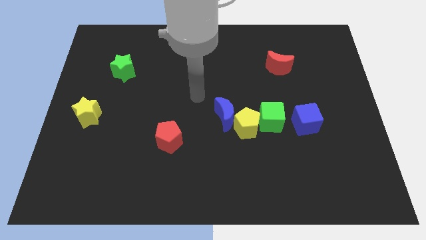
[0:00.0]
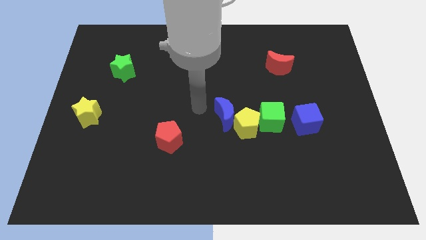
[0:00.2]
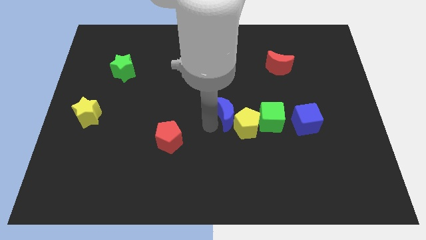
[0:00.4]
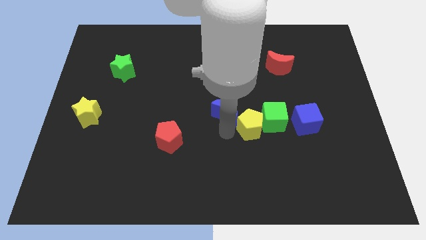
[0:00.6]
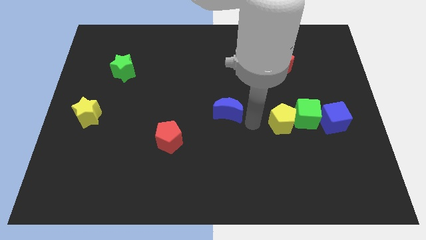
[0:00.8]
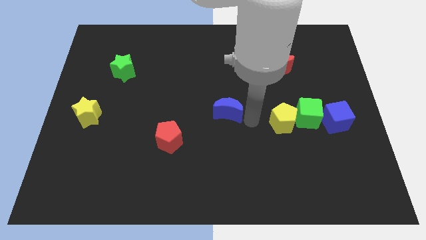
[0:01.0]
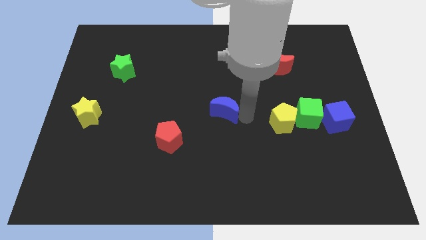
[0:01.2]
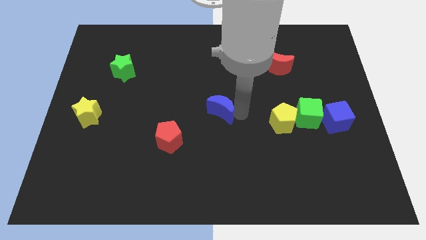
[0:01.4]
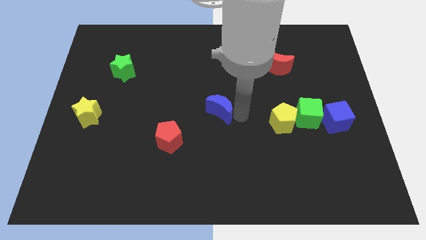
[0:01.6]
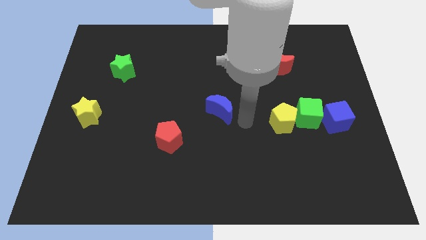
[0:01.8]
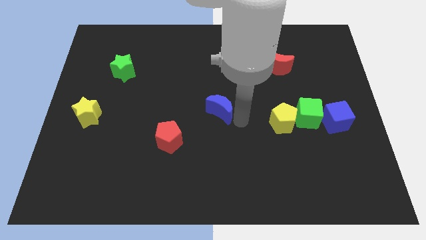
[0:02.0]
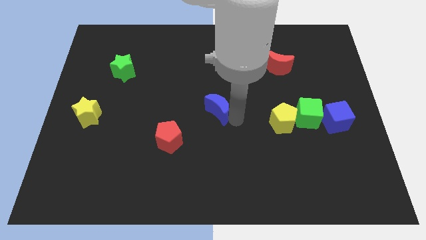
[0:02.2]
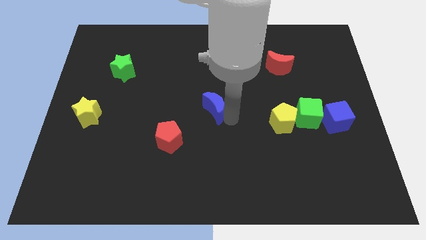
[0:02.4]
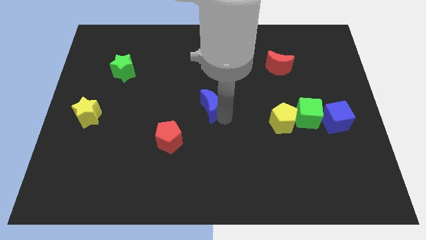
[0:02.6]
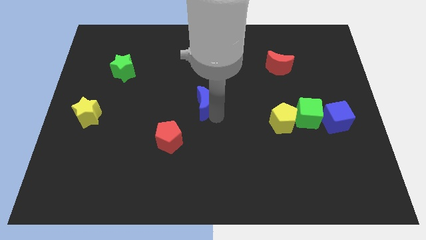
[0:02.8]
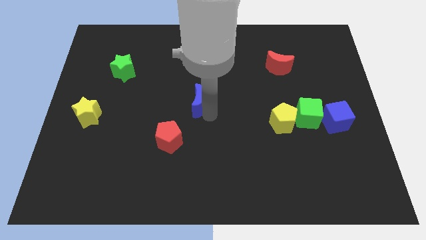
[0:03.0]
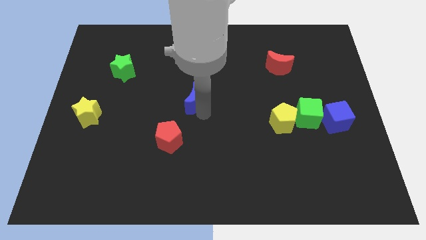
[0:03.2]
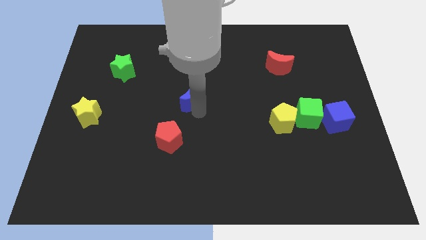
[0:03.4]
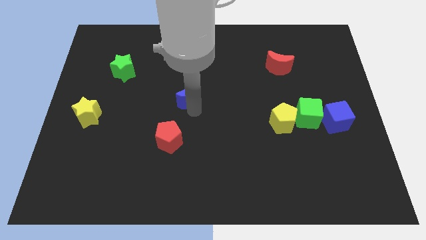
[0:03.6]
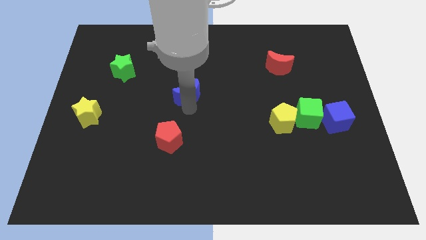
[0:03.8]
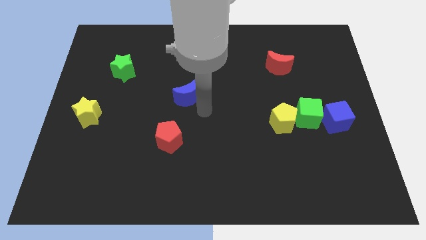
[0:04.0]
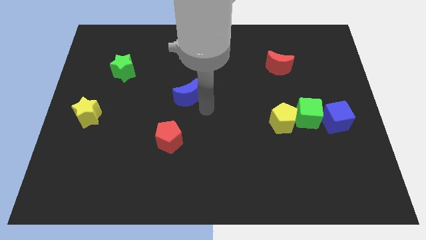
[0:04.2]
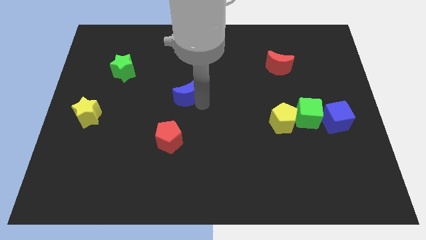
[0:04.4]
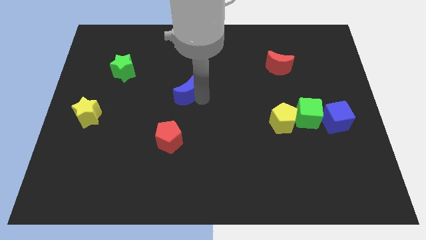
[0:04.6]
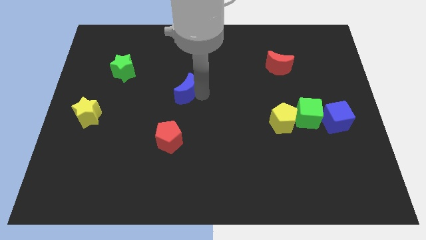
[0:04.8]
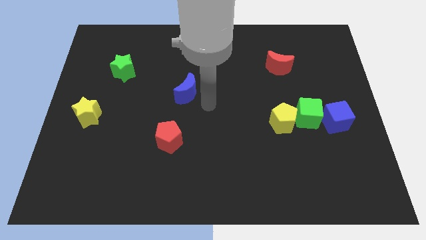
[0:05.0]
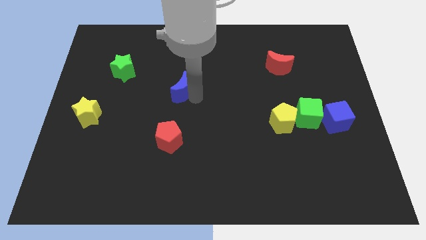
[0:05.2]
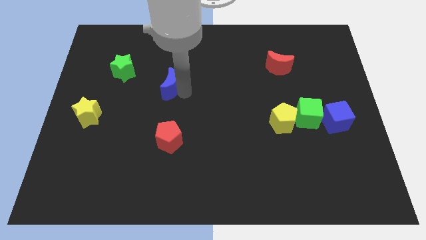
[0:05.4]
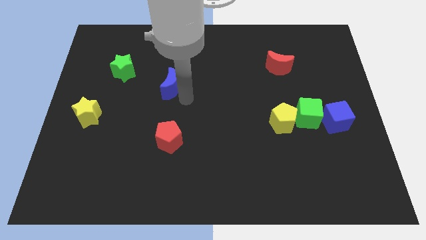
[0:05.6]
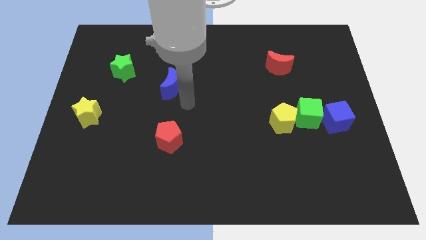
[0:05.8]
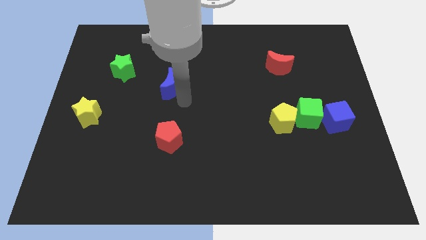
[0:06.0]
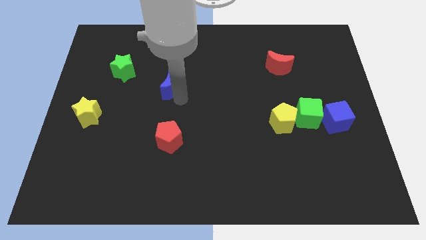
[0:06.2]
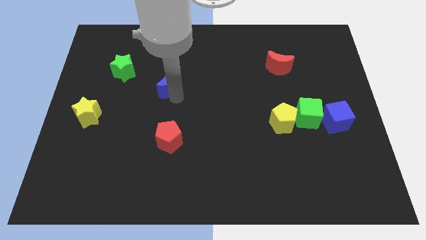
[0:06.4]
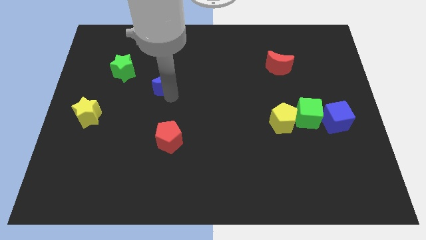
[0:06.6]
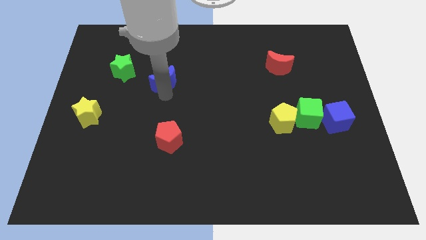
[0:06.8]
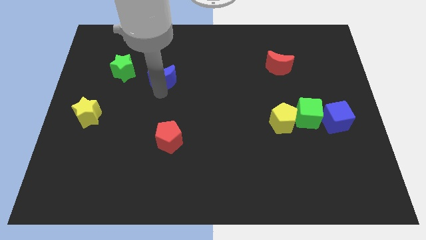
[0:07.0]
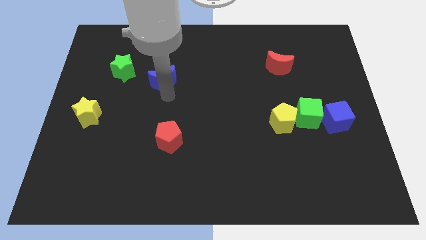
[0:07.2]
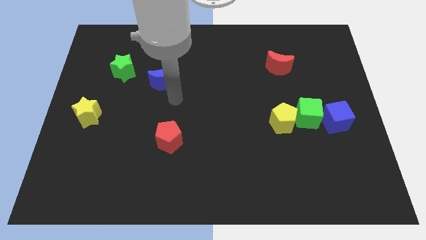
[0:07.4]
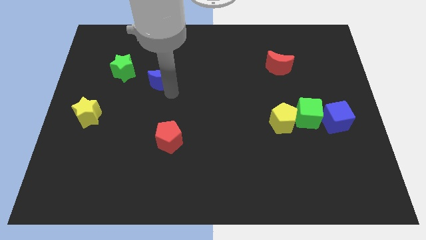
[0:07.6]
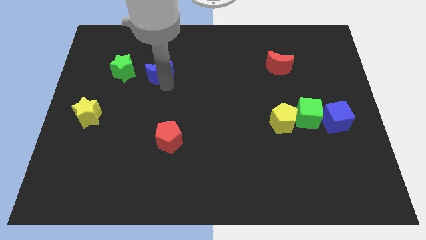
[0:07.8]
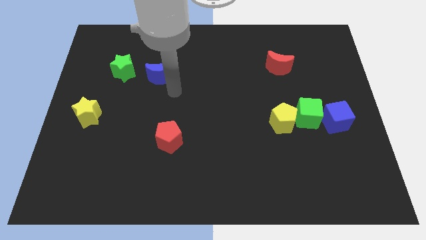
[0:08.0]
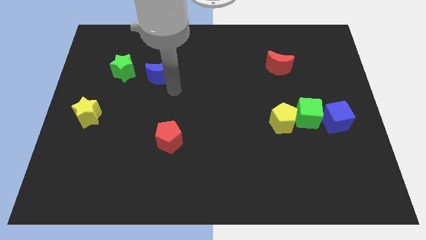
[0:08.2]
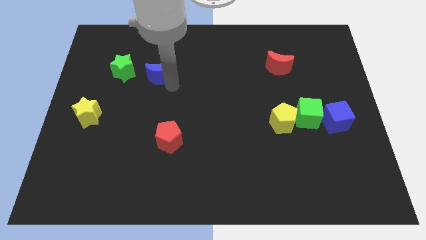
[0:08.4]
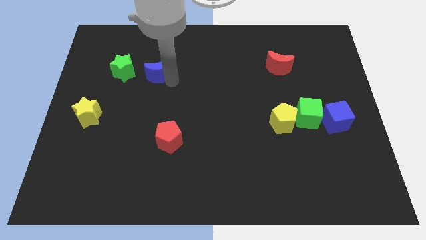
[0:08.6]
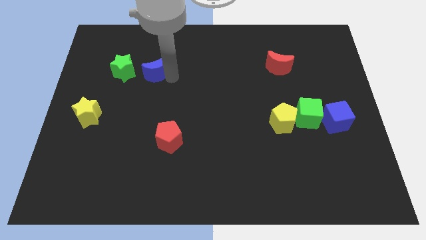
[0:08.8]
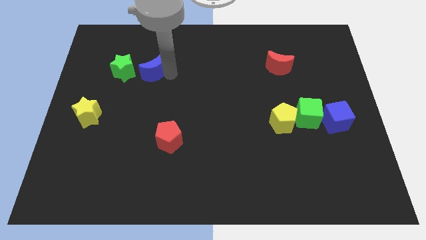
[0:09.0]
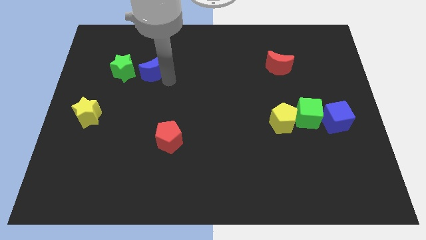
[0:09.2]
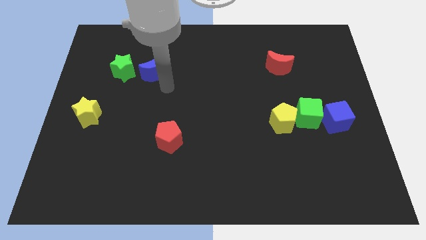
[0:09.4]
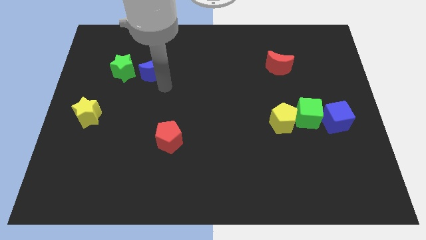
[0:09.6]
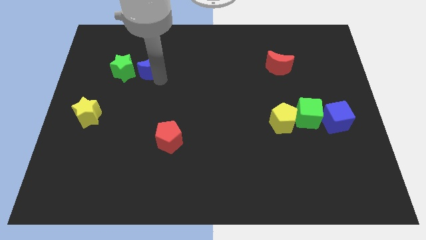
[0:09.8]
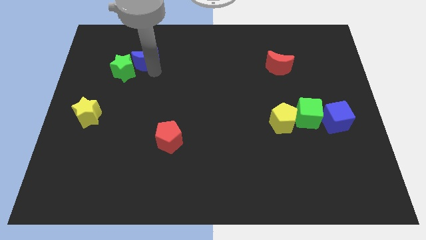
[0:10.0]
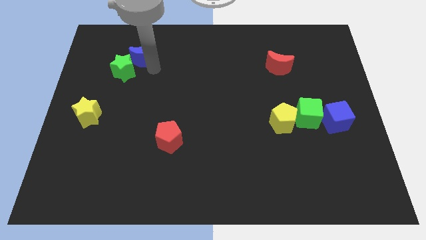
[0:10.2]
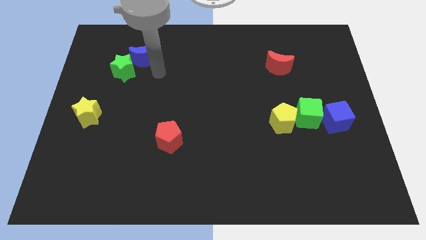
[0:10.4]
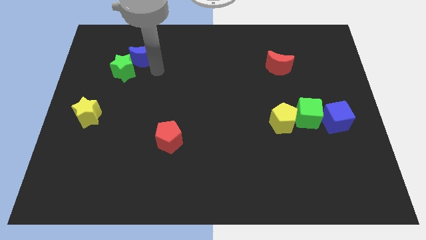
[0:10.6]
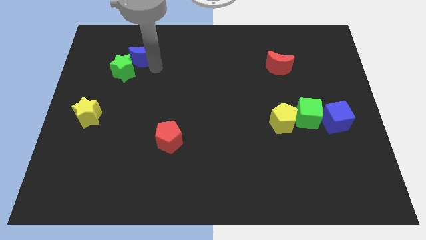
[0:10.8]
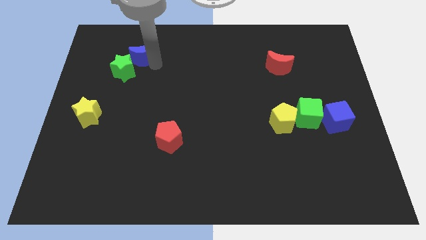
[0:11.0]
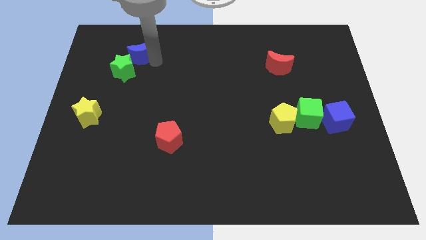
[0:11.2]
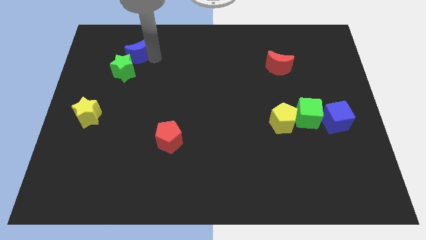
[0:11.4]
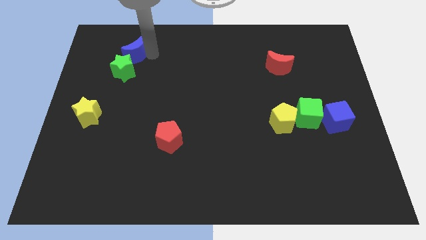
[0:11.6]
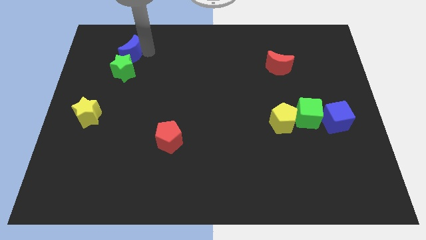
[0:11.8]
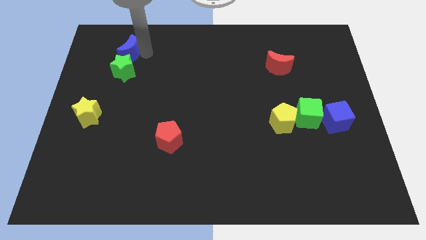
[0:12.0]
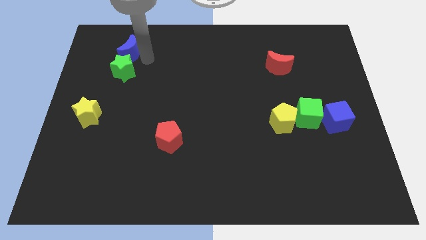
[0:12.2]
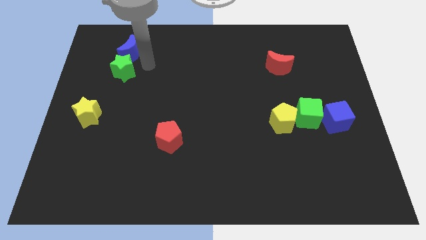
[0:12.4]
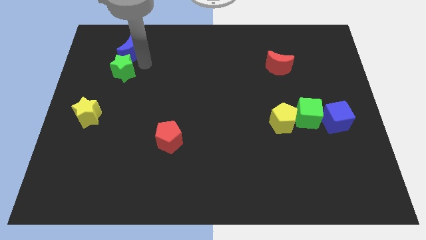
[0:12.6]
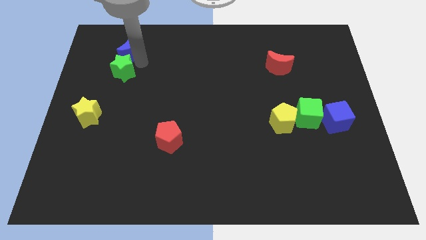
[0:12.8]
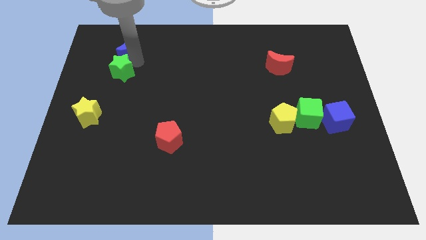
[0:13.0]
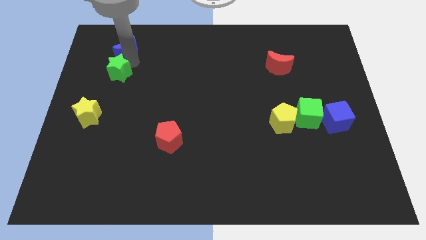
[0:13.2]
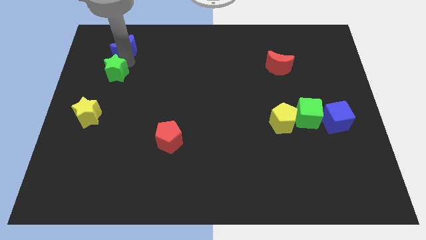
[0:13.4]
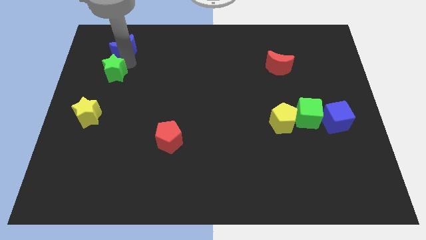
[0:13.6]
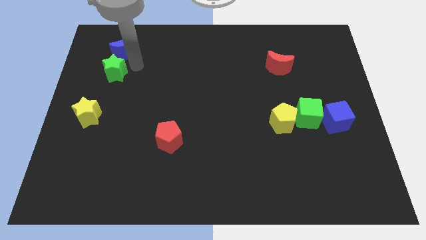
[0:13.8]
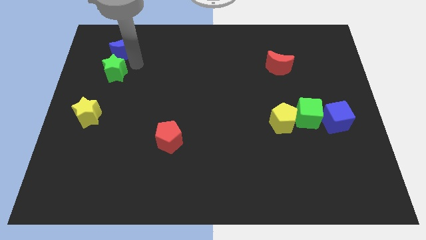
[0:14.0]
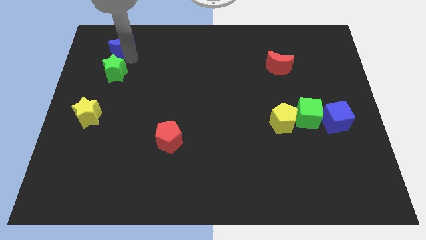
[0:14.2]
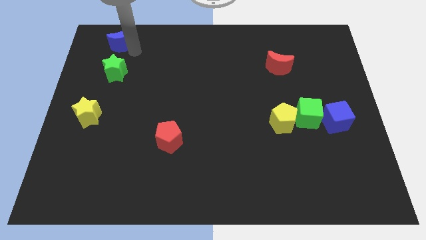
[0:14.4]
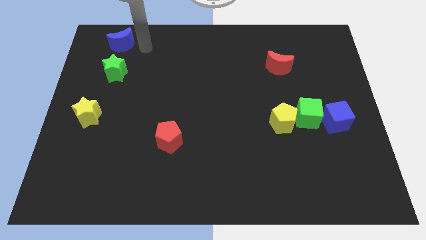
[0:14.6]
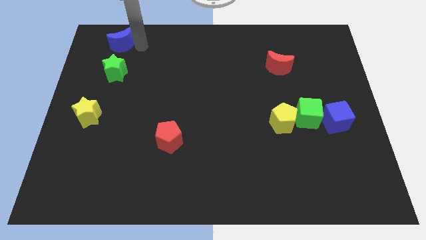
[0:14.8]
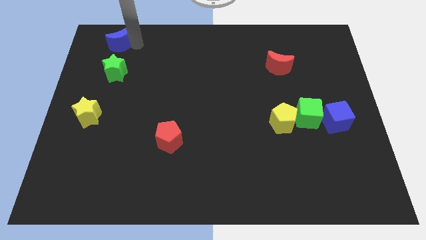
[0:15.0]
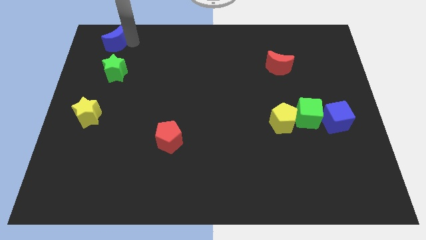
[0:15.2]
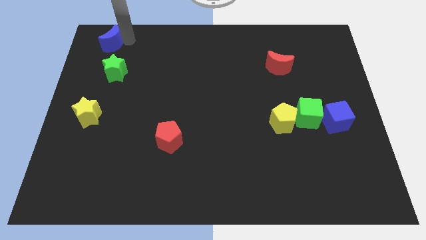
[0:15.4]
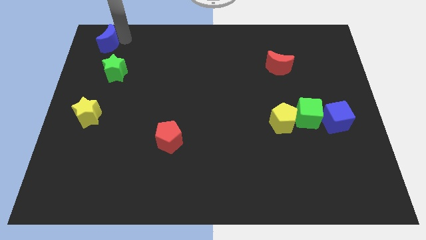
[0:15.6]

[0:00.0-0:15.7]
push the blue moon to the top left corner
